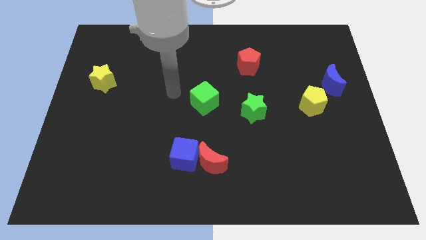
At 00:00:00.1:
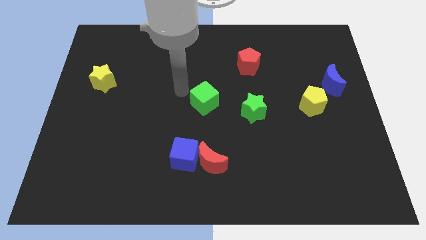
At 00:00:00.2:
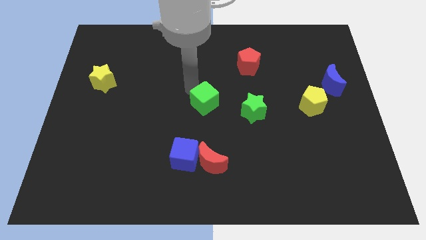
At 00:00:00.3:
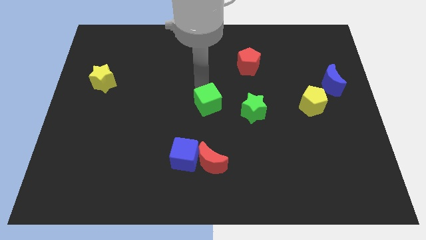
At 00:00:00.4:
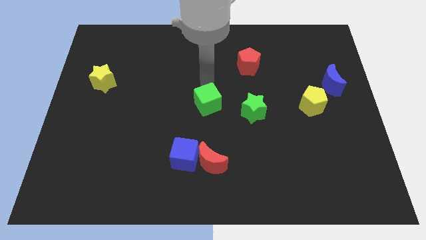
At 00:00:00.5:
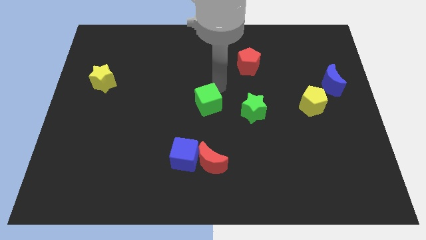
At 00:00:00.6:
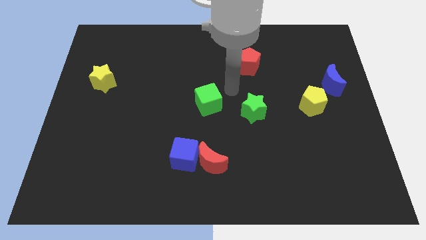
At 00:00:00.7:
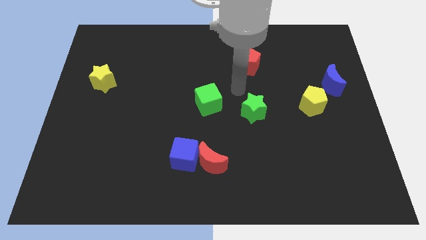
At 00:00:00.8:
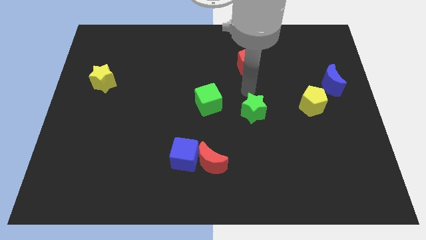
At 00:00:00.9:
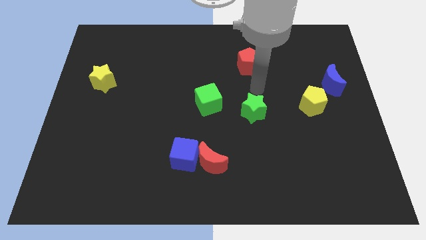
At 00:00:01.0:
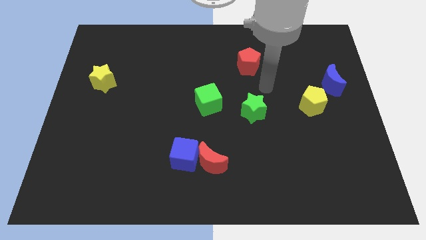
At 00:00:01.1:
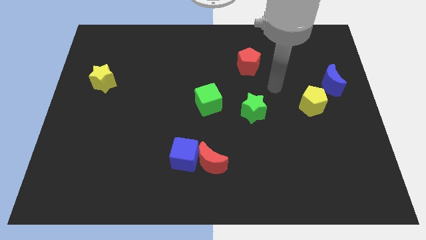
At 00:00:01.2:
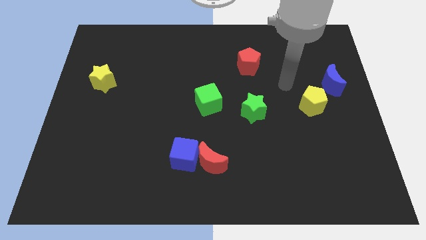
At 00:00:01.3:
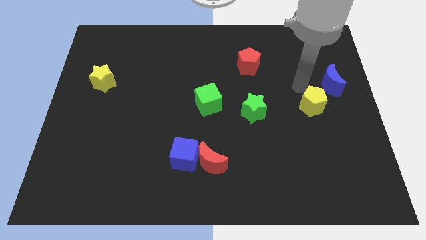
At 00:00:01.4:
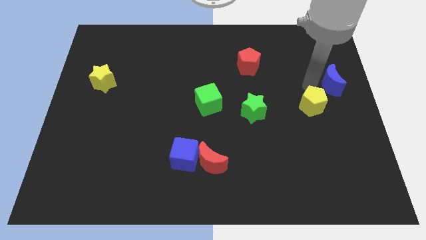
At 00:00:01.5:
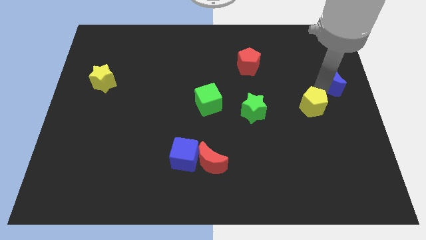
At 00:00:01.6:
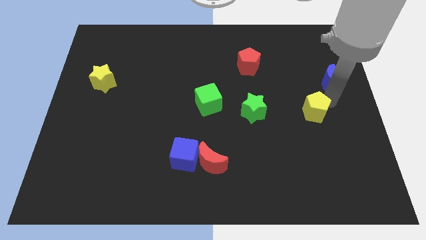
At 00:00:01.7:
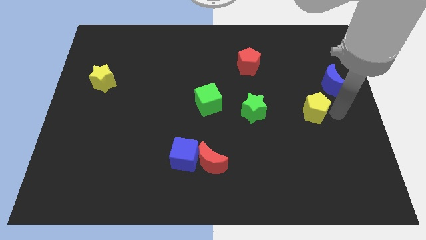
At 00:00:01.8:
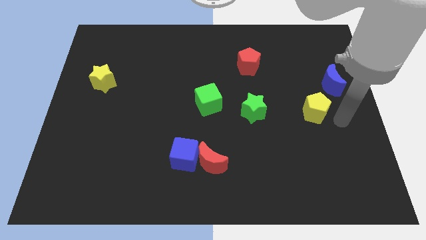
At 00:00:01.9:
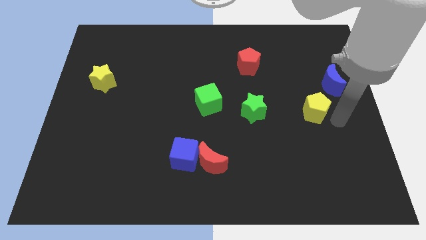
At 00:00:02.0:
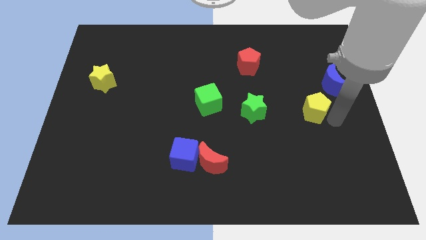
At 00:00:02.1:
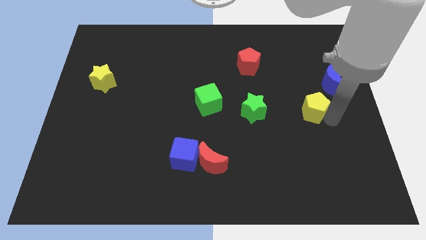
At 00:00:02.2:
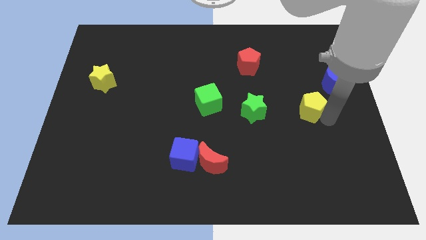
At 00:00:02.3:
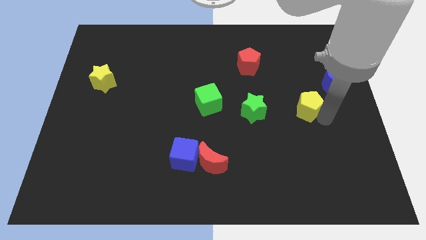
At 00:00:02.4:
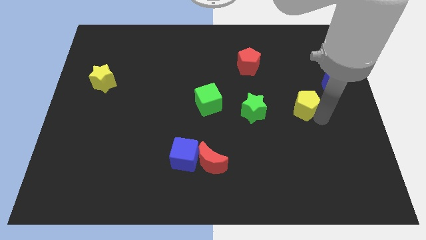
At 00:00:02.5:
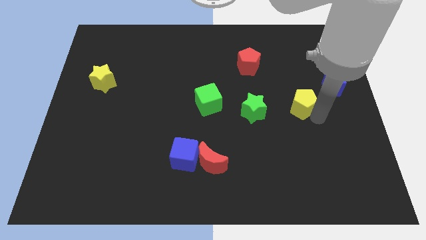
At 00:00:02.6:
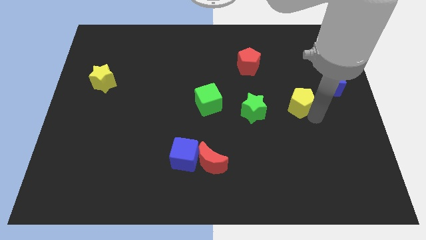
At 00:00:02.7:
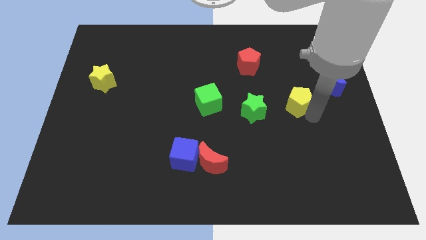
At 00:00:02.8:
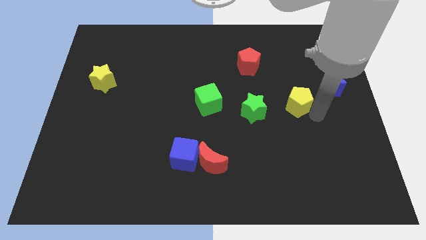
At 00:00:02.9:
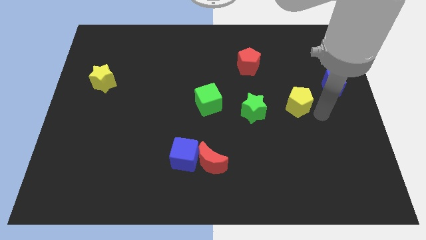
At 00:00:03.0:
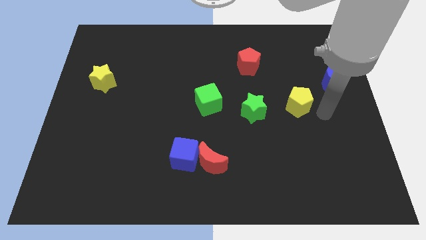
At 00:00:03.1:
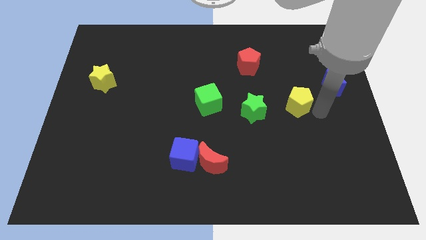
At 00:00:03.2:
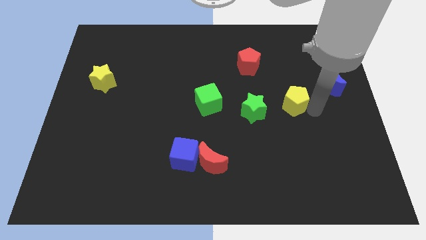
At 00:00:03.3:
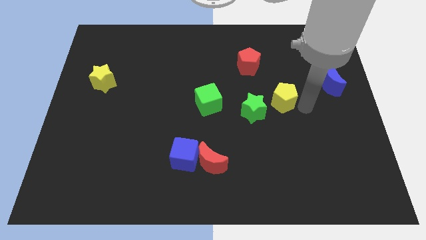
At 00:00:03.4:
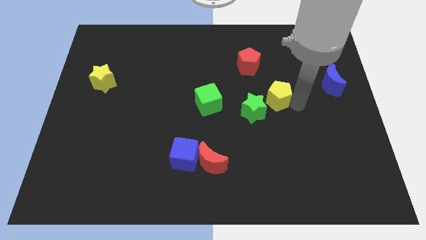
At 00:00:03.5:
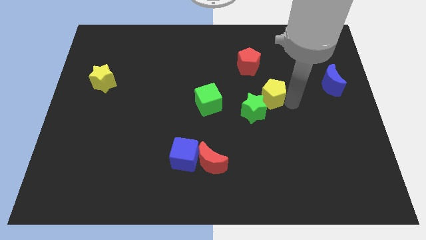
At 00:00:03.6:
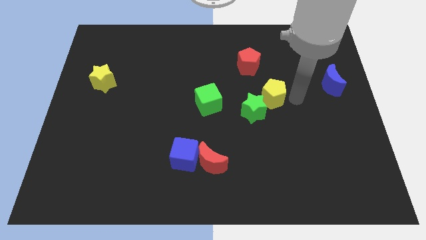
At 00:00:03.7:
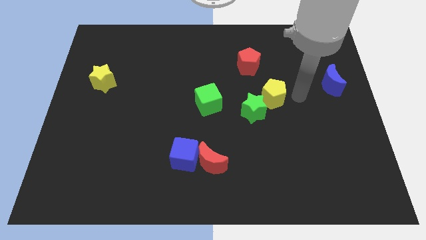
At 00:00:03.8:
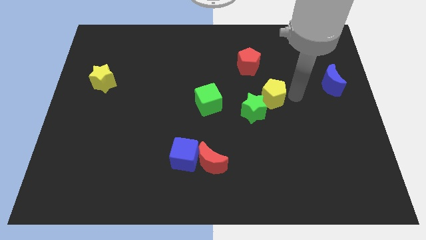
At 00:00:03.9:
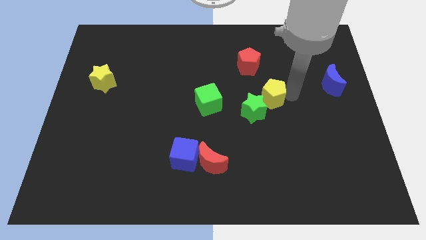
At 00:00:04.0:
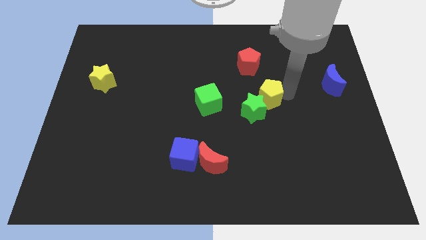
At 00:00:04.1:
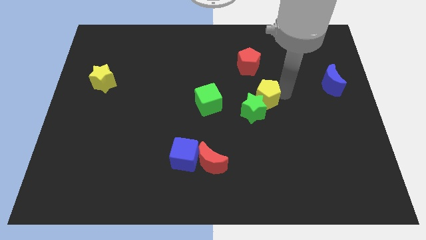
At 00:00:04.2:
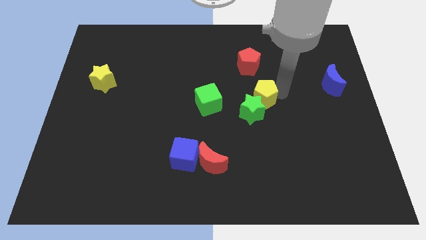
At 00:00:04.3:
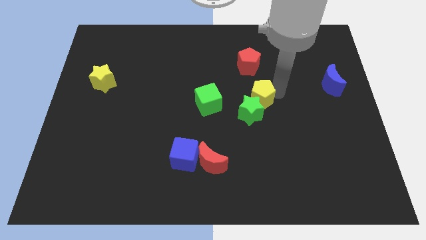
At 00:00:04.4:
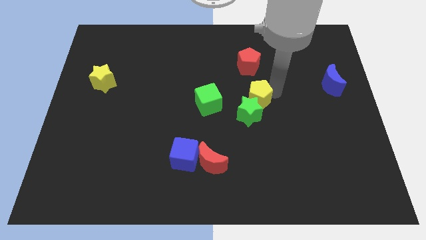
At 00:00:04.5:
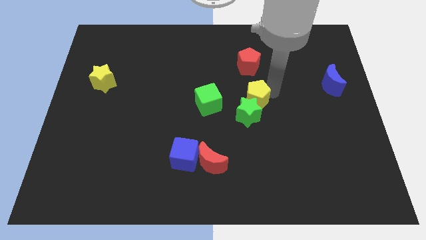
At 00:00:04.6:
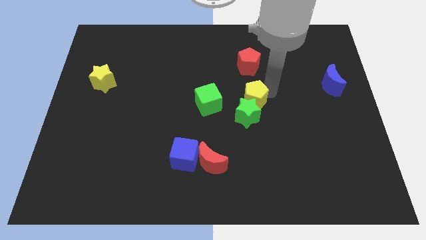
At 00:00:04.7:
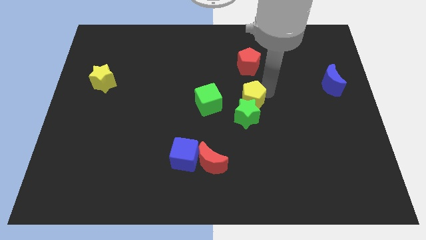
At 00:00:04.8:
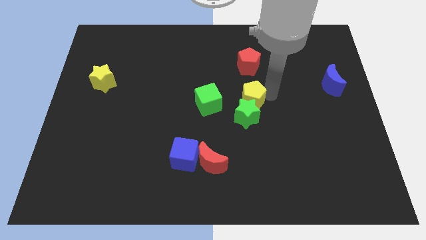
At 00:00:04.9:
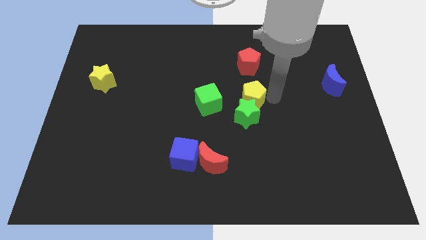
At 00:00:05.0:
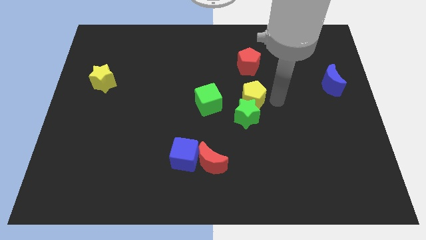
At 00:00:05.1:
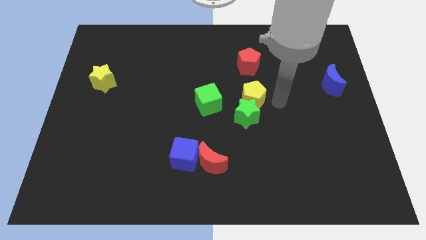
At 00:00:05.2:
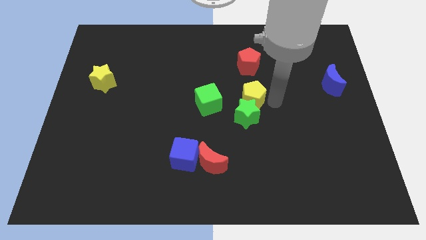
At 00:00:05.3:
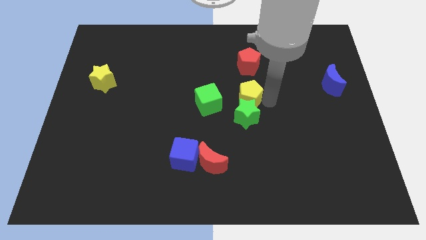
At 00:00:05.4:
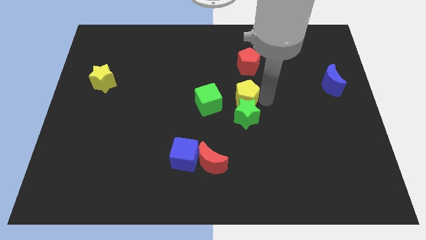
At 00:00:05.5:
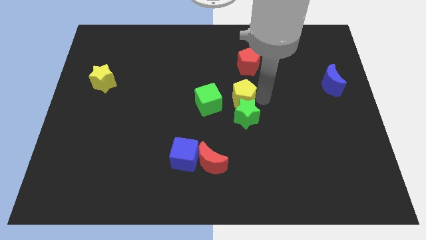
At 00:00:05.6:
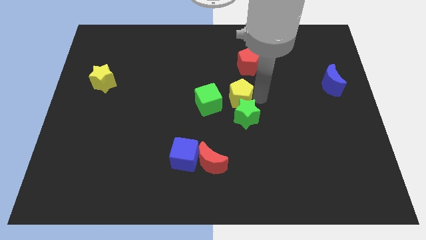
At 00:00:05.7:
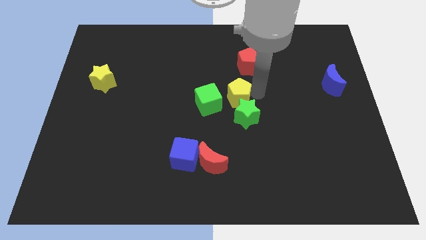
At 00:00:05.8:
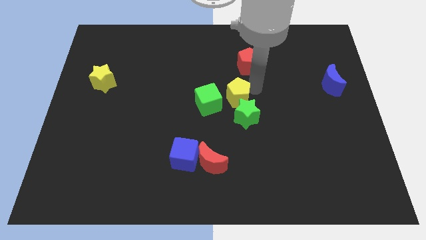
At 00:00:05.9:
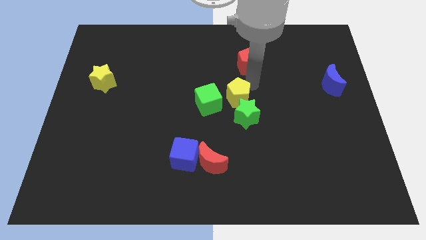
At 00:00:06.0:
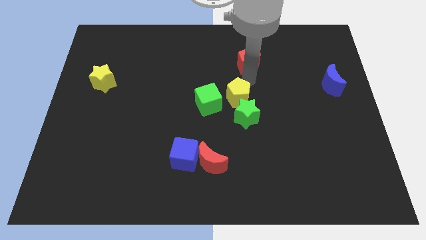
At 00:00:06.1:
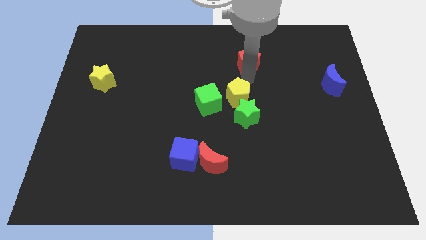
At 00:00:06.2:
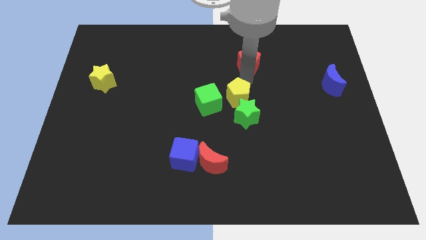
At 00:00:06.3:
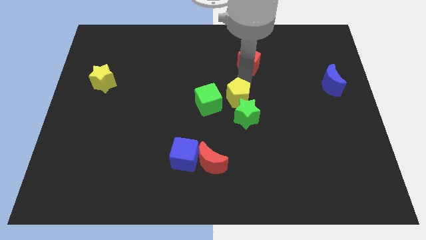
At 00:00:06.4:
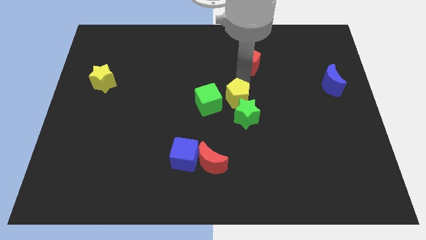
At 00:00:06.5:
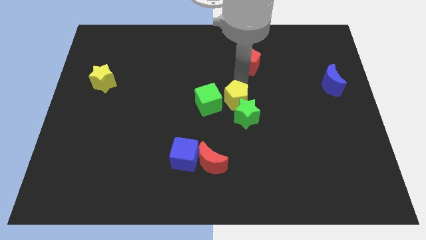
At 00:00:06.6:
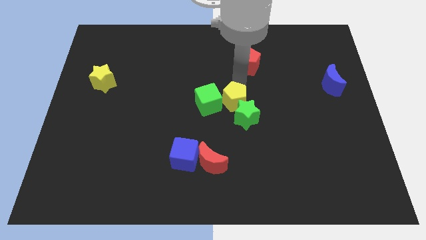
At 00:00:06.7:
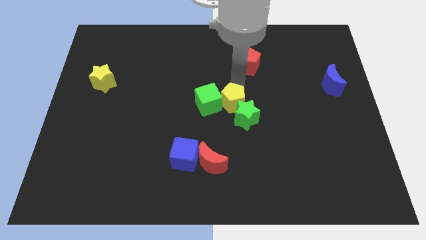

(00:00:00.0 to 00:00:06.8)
put the yellow pentagon to the left of the green star

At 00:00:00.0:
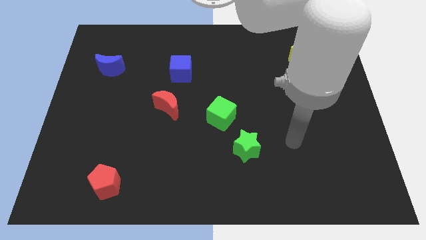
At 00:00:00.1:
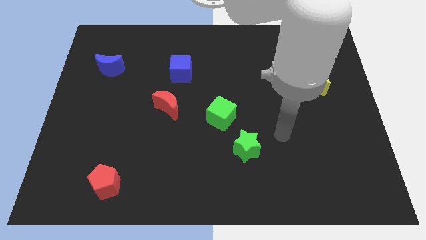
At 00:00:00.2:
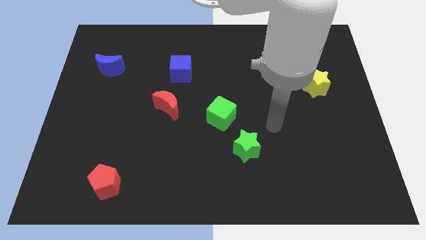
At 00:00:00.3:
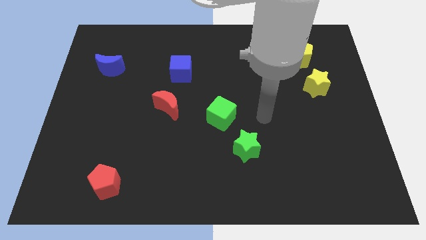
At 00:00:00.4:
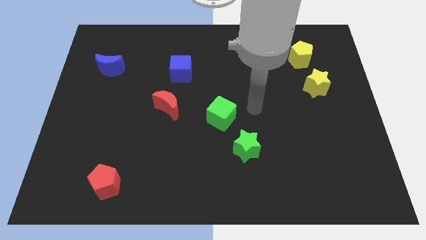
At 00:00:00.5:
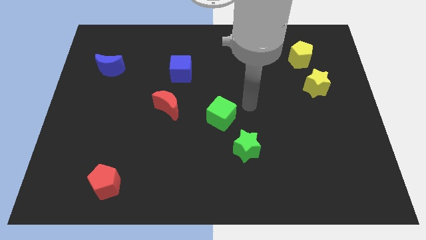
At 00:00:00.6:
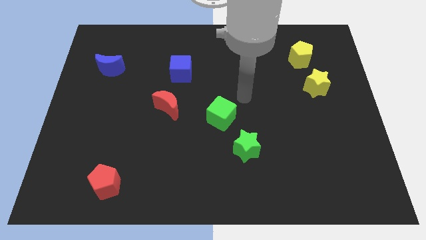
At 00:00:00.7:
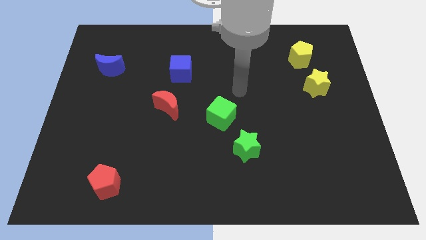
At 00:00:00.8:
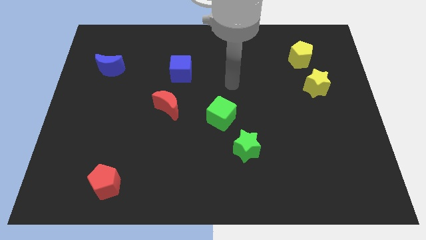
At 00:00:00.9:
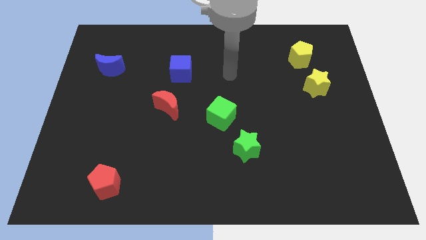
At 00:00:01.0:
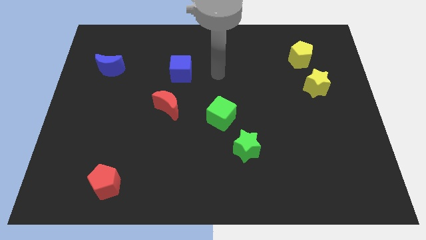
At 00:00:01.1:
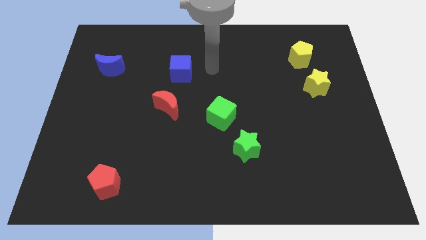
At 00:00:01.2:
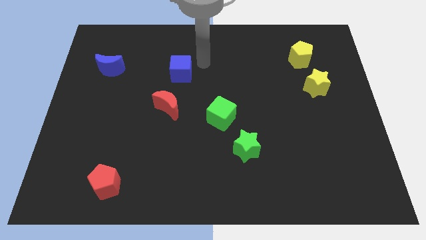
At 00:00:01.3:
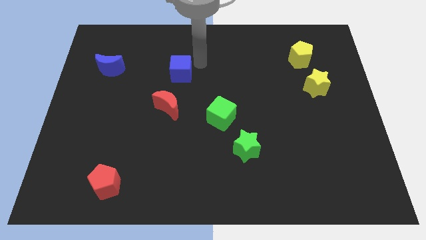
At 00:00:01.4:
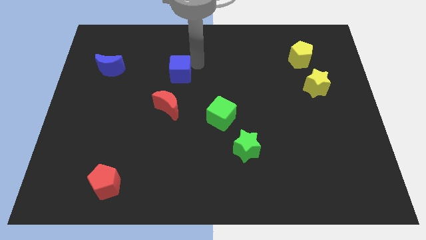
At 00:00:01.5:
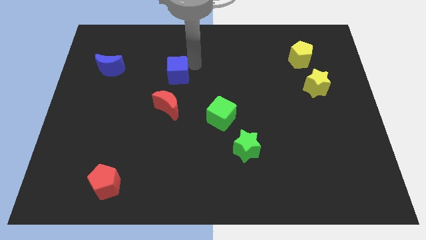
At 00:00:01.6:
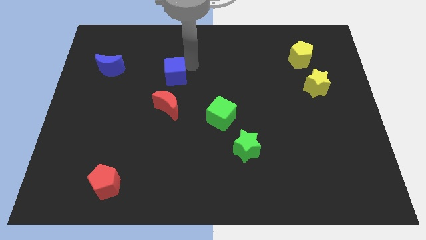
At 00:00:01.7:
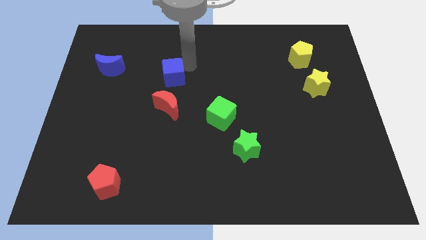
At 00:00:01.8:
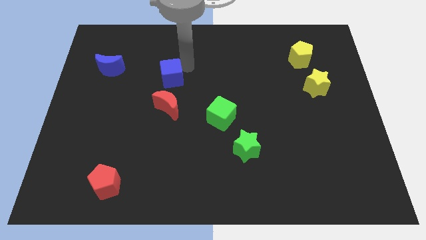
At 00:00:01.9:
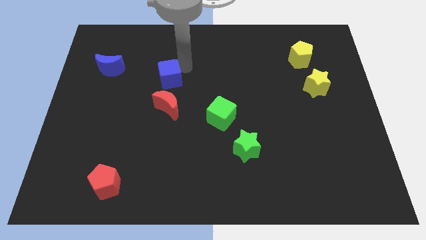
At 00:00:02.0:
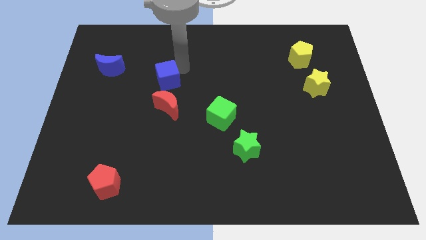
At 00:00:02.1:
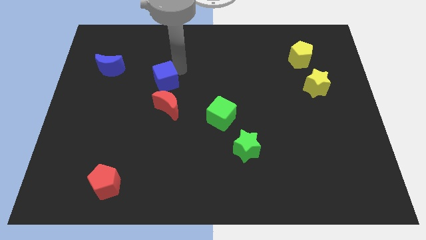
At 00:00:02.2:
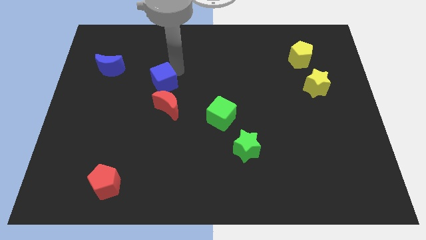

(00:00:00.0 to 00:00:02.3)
push the blue cube diagonally up and to the left of the red moon
